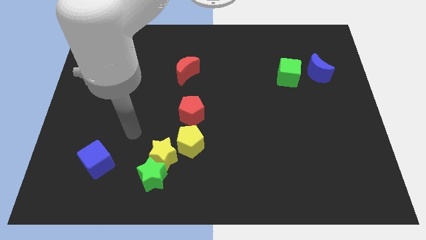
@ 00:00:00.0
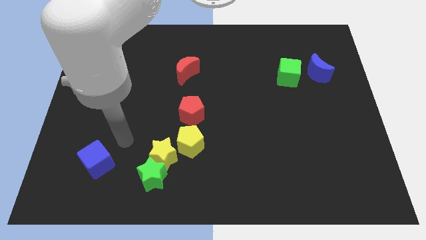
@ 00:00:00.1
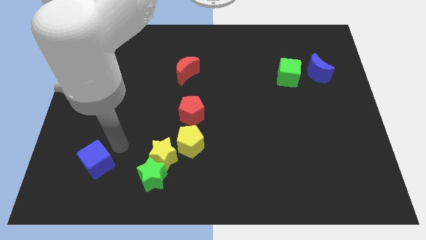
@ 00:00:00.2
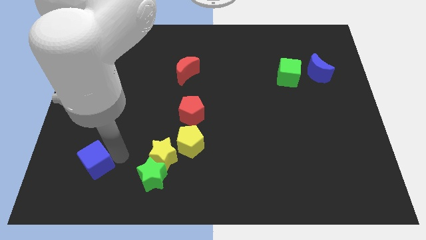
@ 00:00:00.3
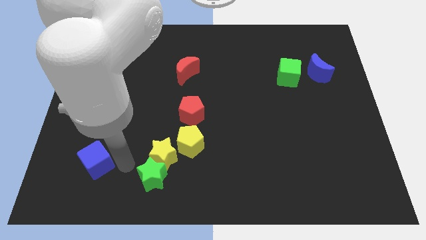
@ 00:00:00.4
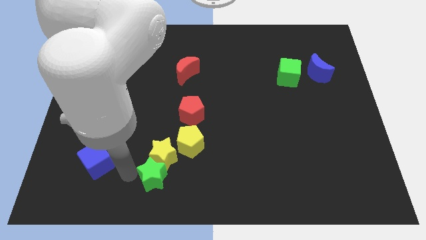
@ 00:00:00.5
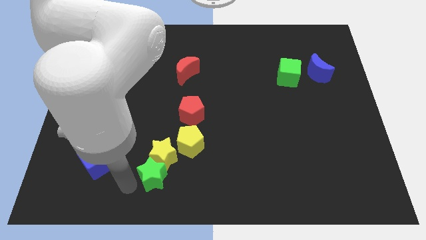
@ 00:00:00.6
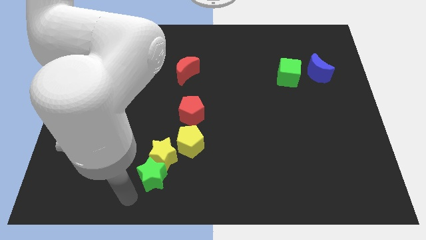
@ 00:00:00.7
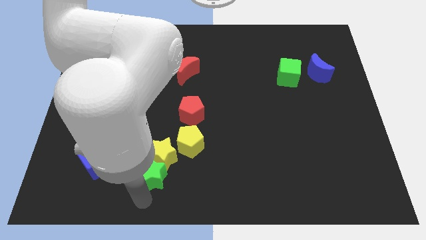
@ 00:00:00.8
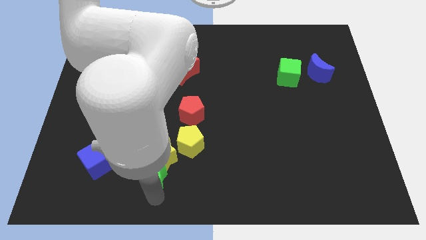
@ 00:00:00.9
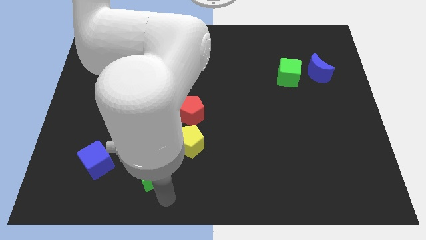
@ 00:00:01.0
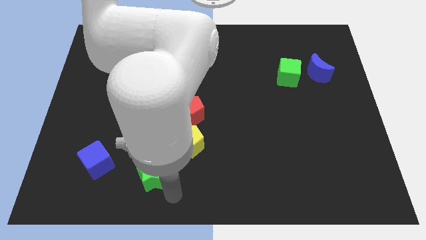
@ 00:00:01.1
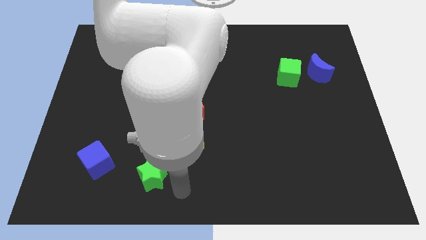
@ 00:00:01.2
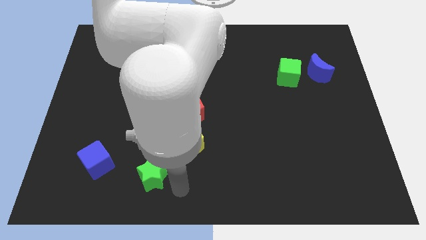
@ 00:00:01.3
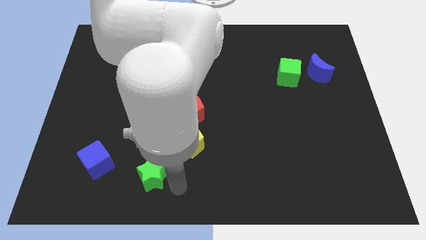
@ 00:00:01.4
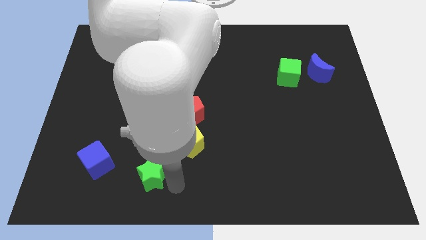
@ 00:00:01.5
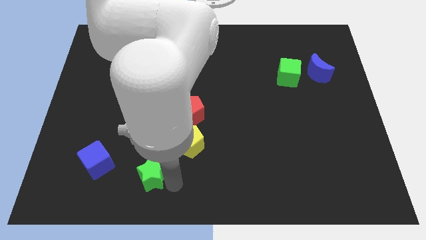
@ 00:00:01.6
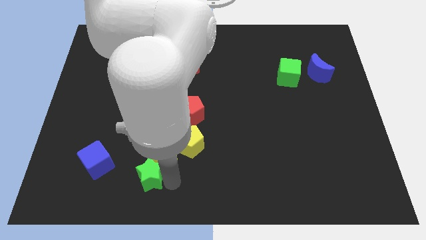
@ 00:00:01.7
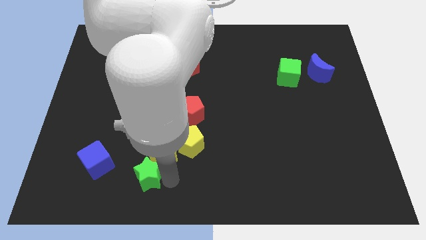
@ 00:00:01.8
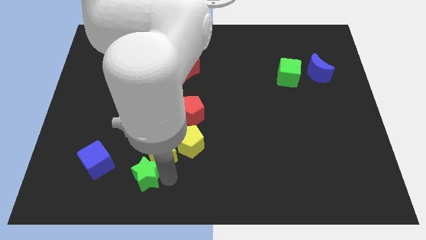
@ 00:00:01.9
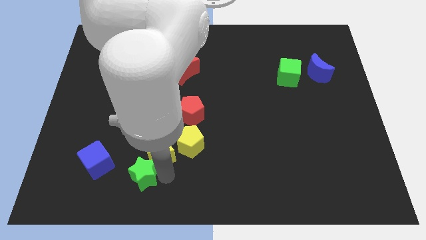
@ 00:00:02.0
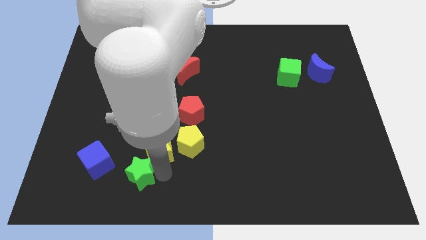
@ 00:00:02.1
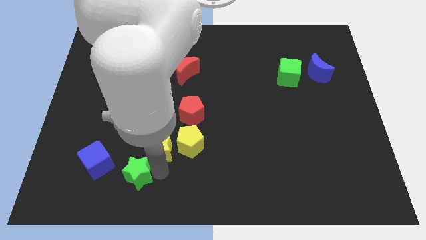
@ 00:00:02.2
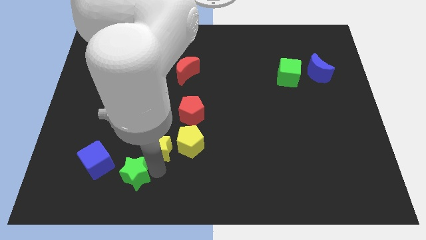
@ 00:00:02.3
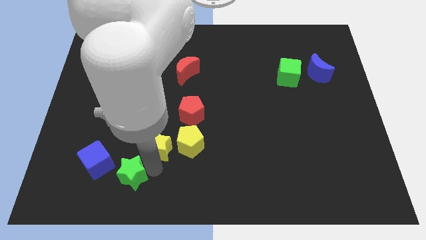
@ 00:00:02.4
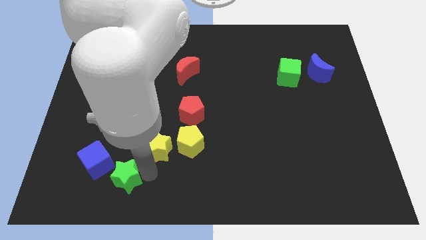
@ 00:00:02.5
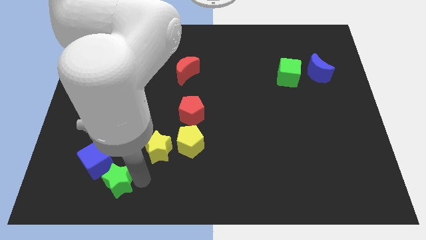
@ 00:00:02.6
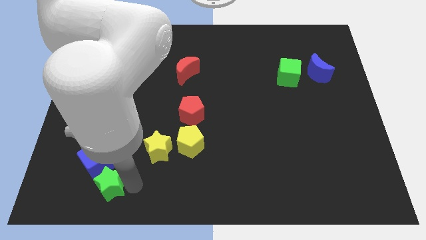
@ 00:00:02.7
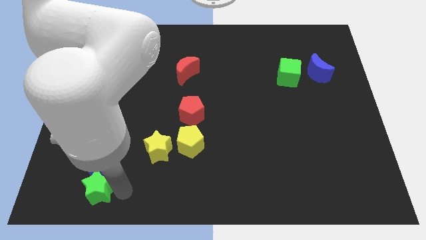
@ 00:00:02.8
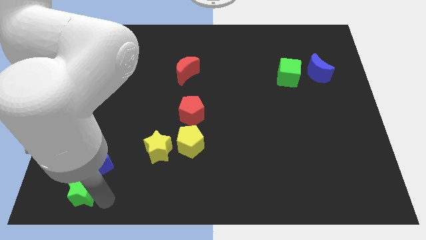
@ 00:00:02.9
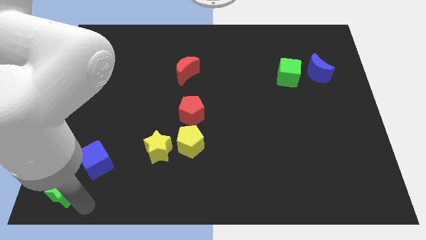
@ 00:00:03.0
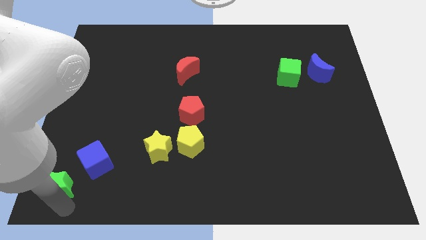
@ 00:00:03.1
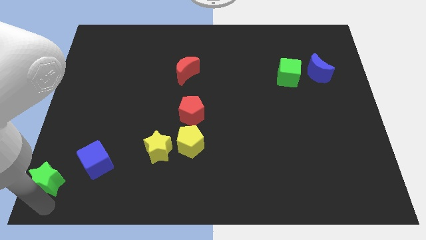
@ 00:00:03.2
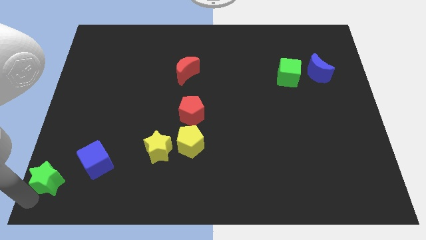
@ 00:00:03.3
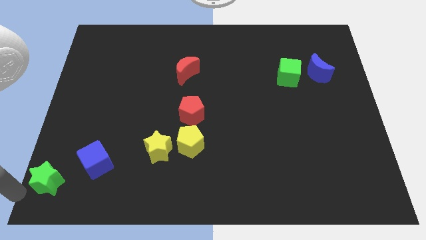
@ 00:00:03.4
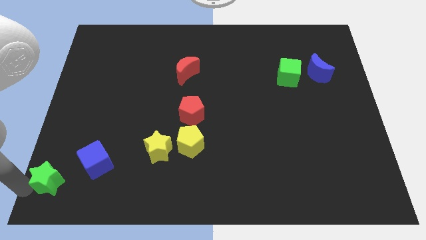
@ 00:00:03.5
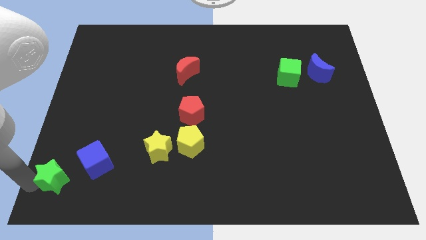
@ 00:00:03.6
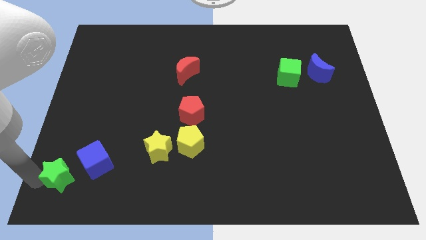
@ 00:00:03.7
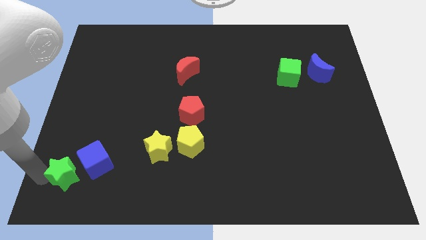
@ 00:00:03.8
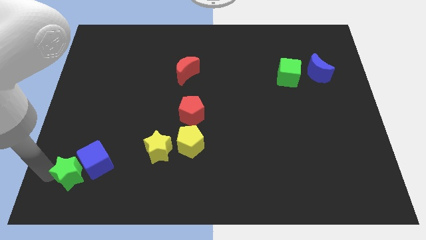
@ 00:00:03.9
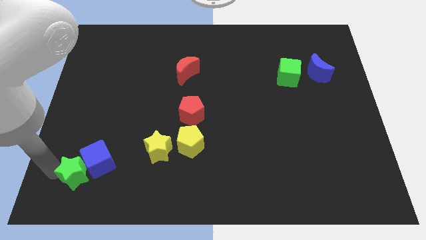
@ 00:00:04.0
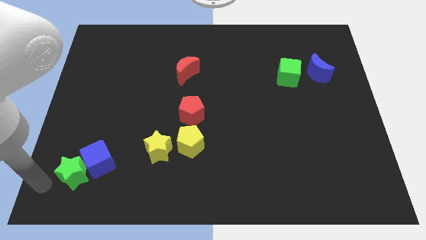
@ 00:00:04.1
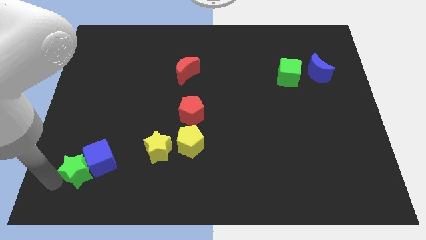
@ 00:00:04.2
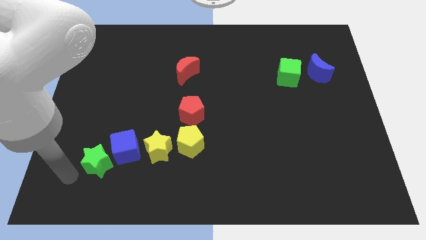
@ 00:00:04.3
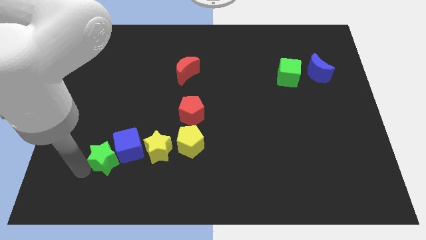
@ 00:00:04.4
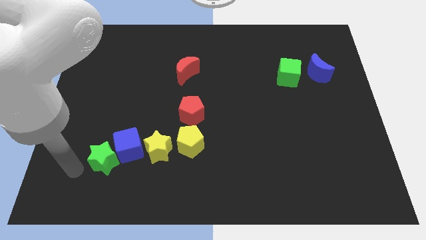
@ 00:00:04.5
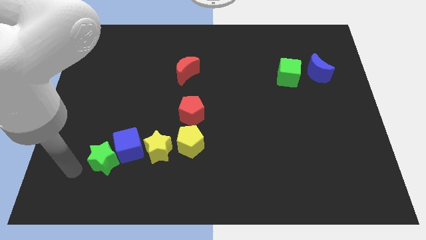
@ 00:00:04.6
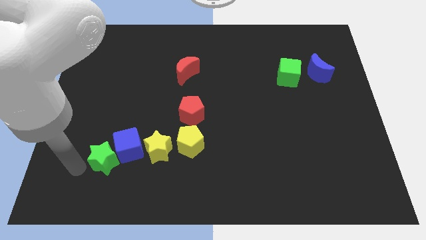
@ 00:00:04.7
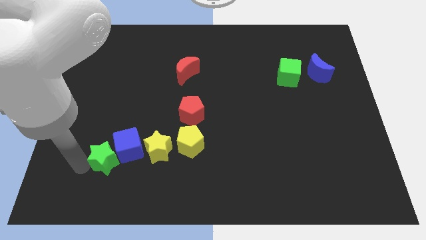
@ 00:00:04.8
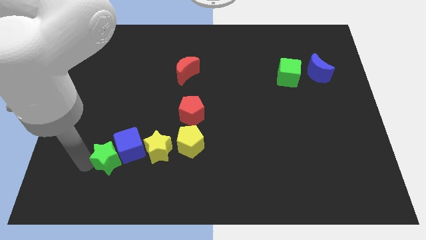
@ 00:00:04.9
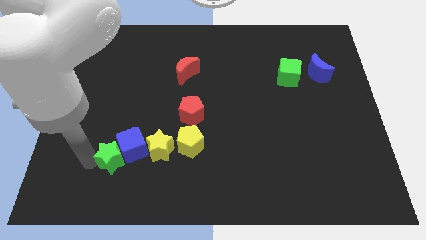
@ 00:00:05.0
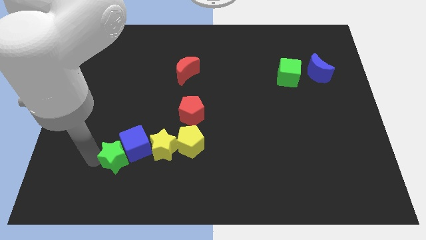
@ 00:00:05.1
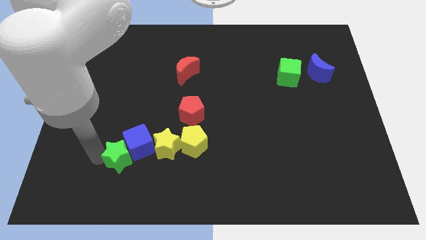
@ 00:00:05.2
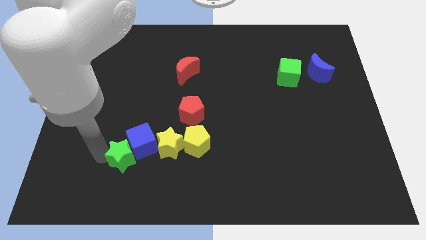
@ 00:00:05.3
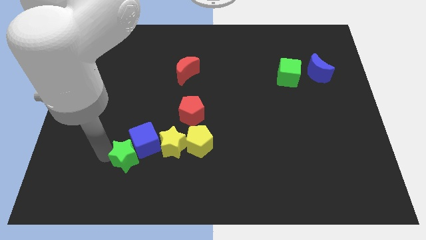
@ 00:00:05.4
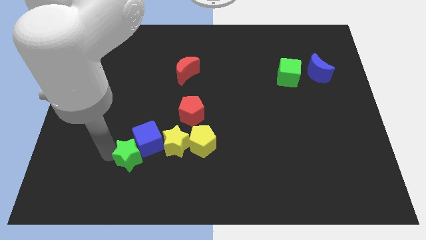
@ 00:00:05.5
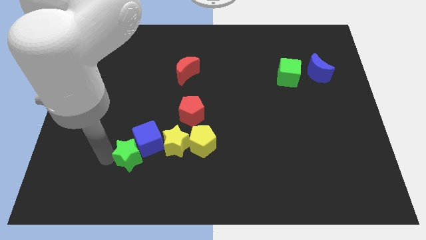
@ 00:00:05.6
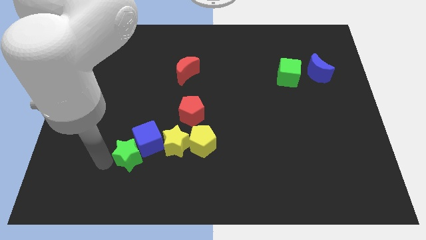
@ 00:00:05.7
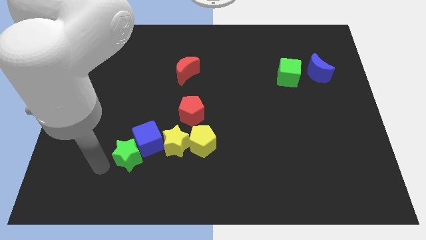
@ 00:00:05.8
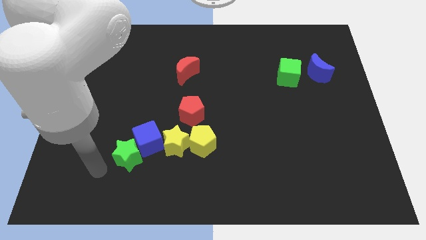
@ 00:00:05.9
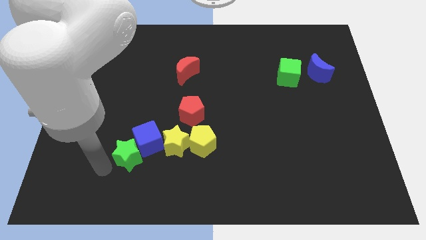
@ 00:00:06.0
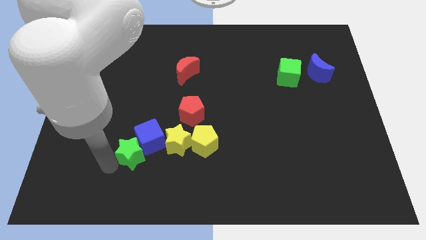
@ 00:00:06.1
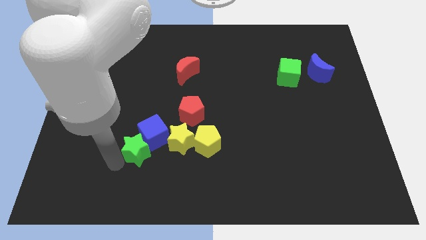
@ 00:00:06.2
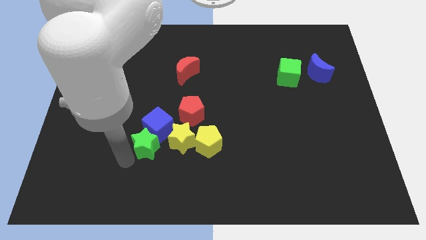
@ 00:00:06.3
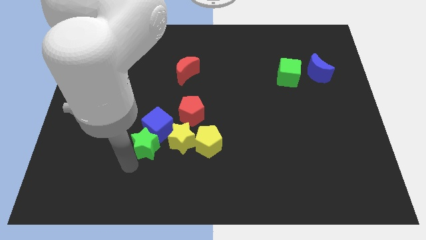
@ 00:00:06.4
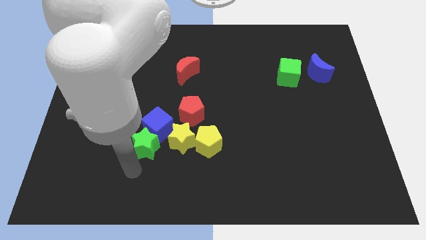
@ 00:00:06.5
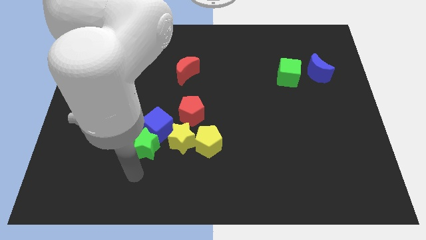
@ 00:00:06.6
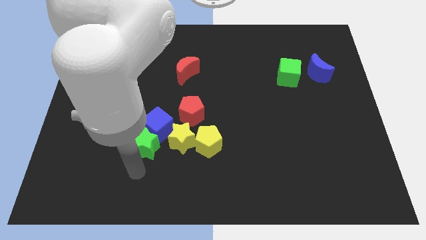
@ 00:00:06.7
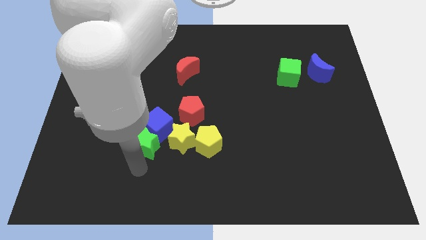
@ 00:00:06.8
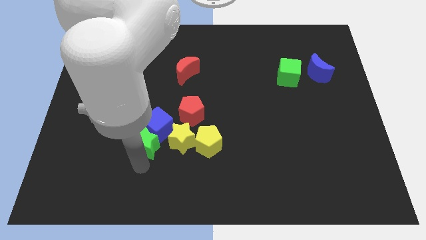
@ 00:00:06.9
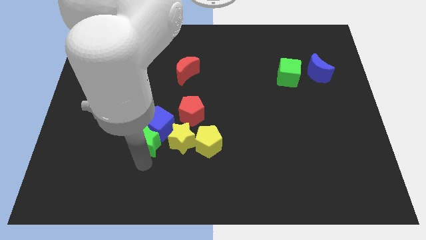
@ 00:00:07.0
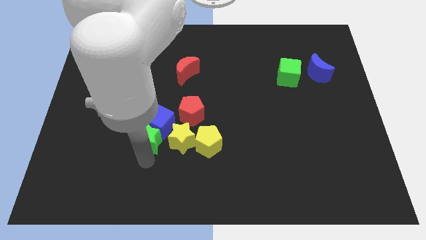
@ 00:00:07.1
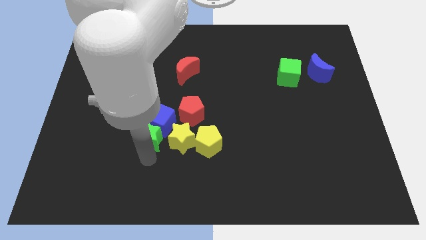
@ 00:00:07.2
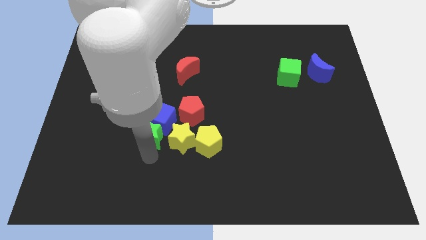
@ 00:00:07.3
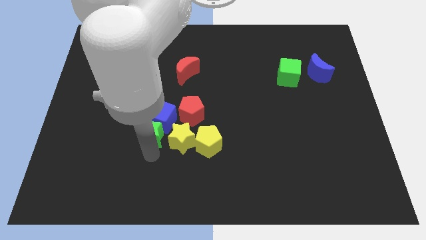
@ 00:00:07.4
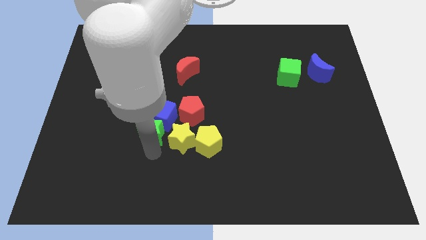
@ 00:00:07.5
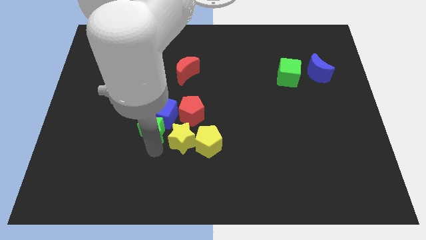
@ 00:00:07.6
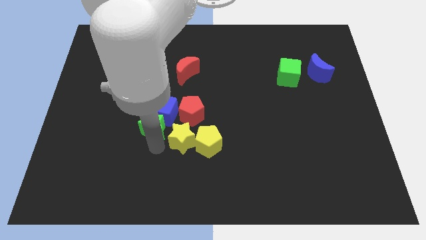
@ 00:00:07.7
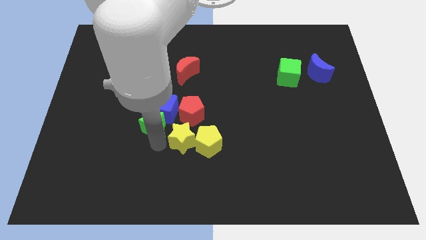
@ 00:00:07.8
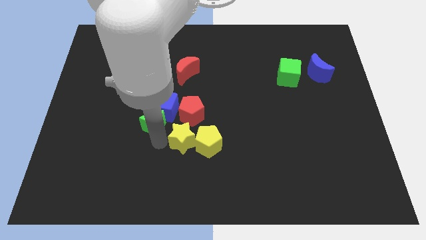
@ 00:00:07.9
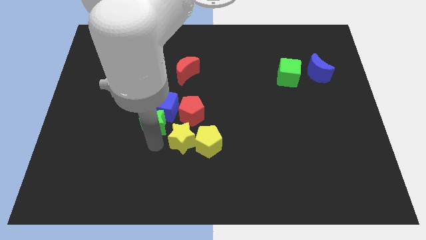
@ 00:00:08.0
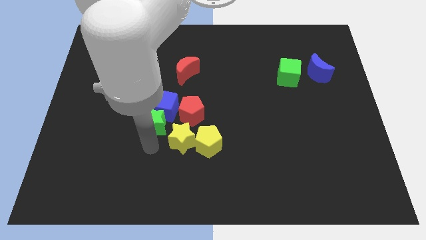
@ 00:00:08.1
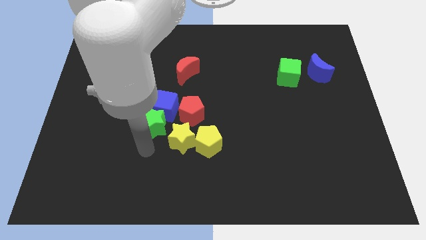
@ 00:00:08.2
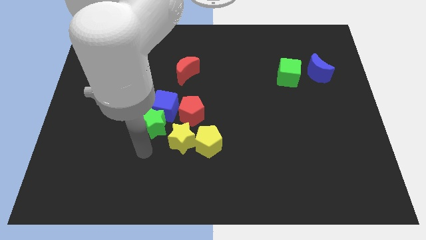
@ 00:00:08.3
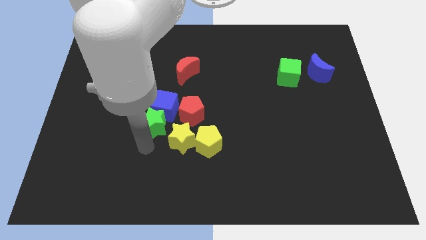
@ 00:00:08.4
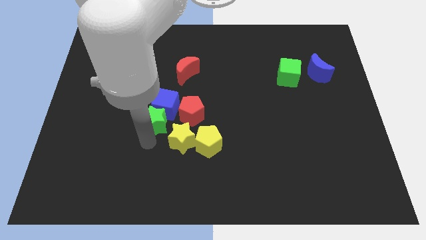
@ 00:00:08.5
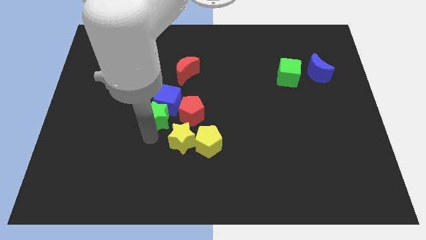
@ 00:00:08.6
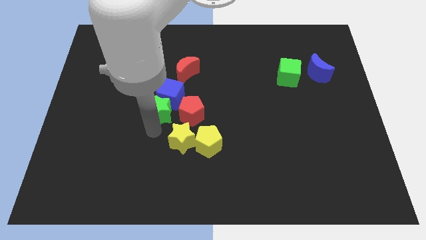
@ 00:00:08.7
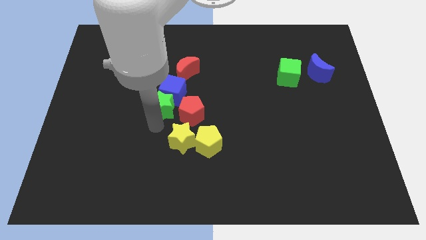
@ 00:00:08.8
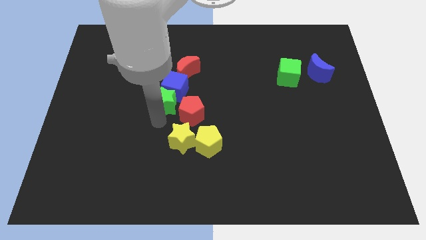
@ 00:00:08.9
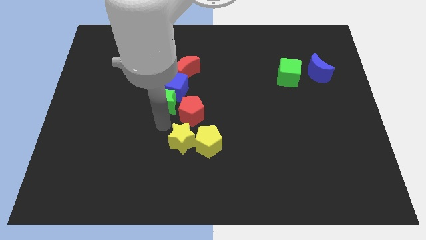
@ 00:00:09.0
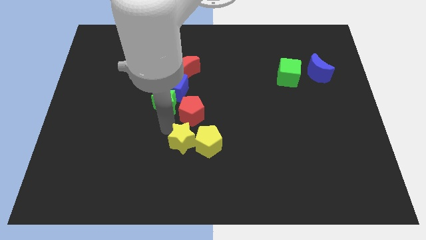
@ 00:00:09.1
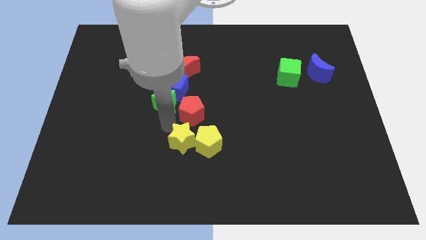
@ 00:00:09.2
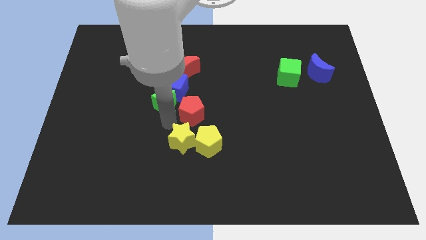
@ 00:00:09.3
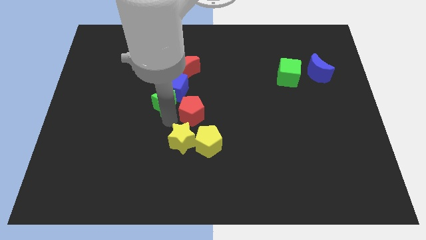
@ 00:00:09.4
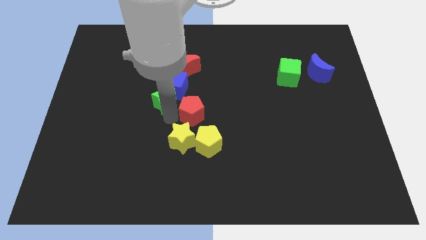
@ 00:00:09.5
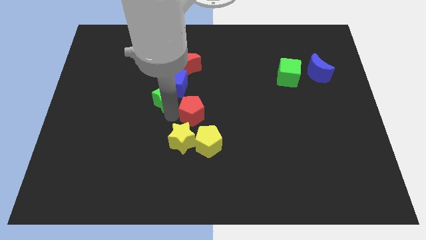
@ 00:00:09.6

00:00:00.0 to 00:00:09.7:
push the green star upwards
